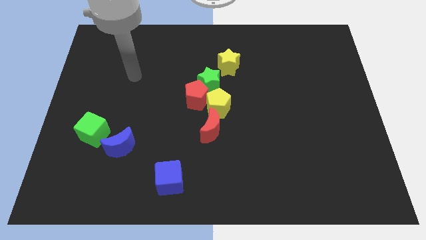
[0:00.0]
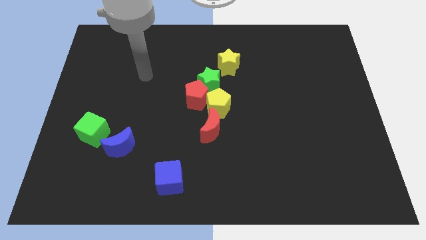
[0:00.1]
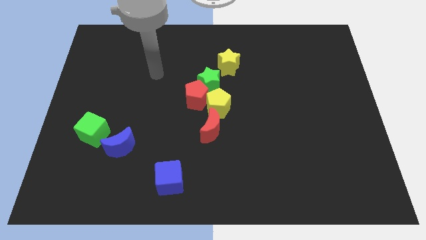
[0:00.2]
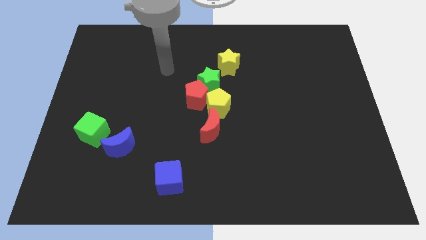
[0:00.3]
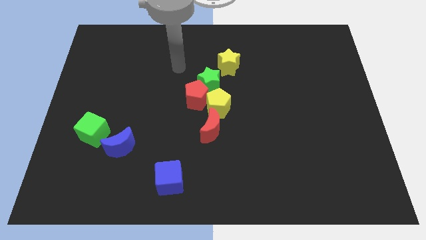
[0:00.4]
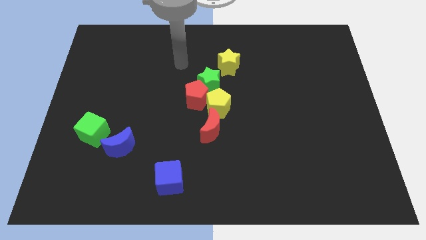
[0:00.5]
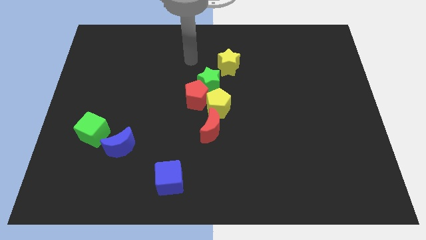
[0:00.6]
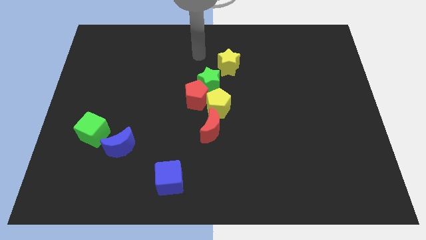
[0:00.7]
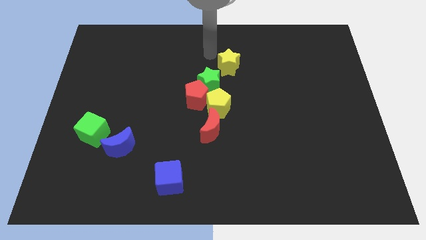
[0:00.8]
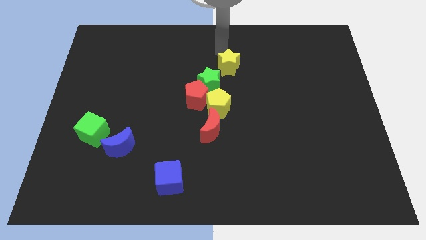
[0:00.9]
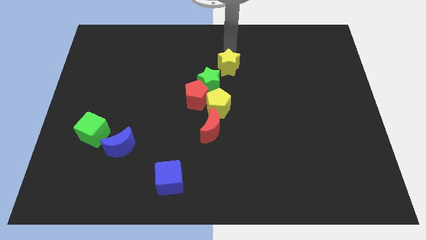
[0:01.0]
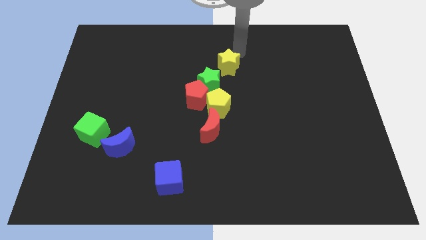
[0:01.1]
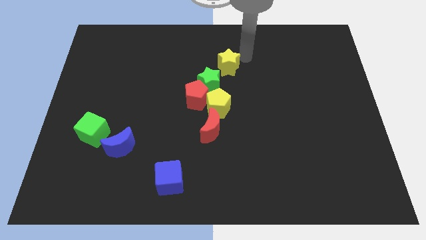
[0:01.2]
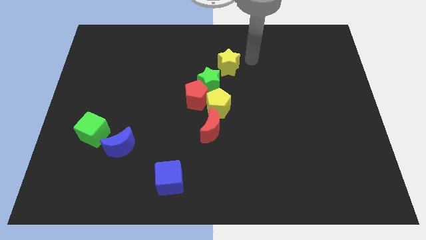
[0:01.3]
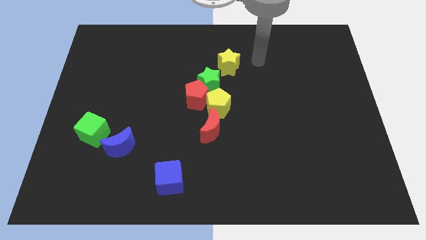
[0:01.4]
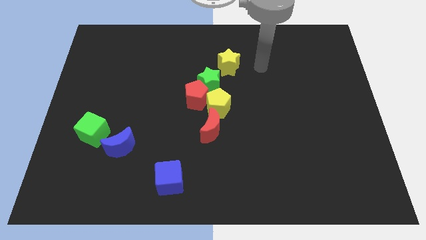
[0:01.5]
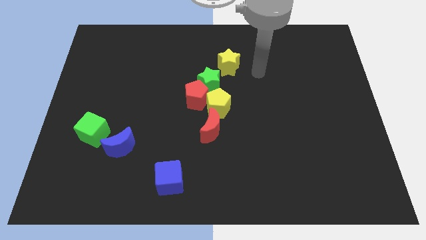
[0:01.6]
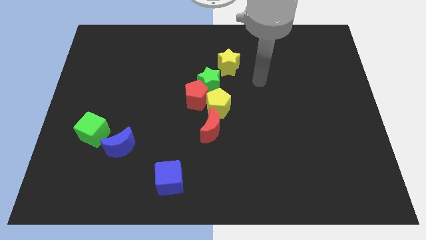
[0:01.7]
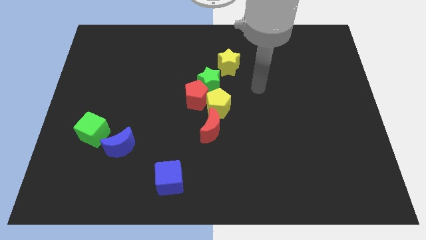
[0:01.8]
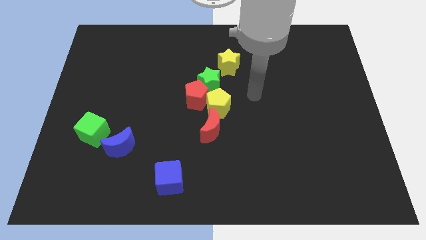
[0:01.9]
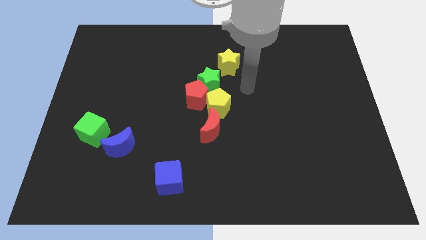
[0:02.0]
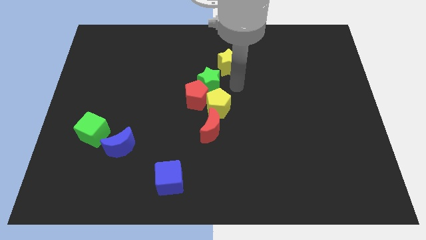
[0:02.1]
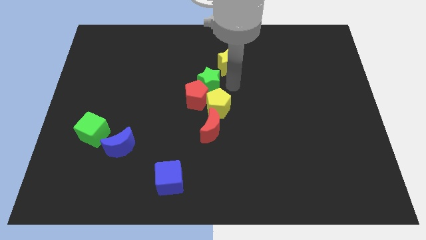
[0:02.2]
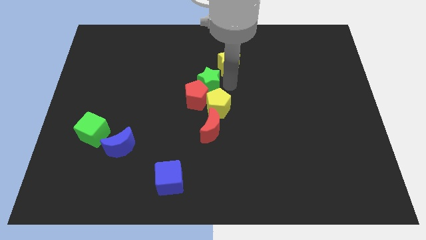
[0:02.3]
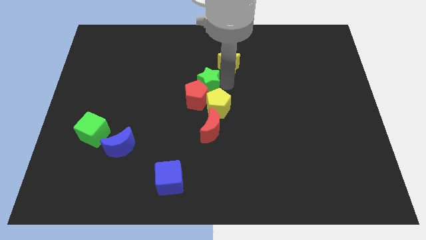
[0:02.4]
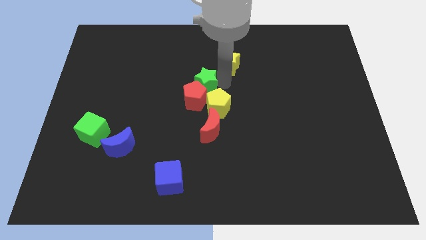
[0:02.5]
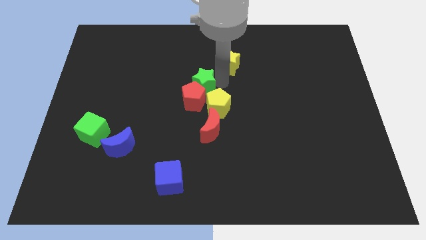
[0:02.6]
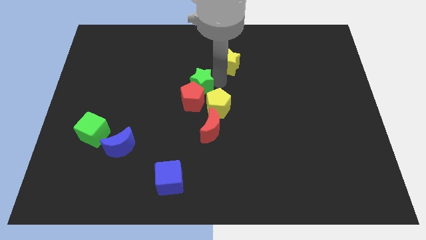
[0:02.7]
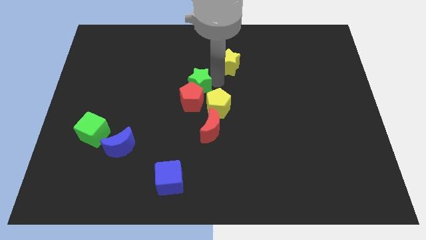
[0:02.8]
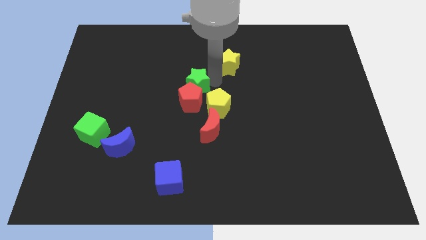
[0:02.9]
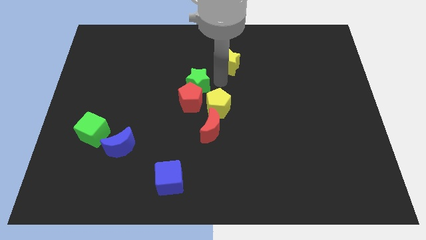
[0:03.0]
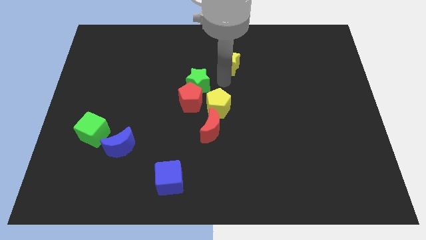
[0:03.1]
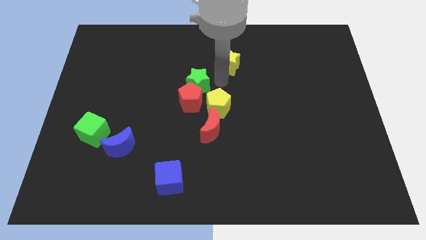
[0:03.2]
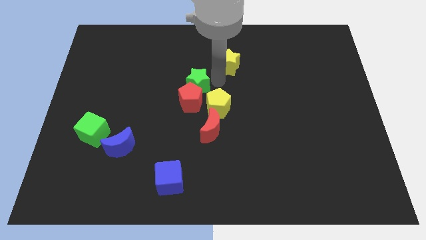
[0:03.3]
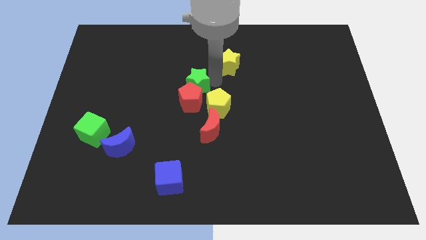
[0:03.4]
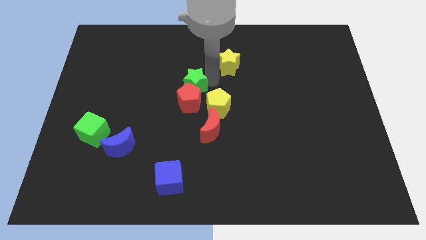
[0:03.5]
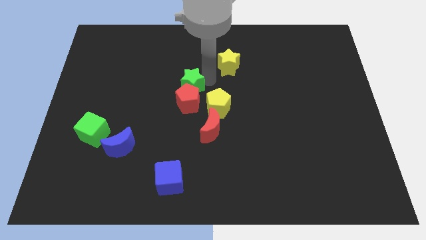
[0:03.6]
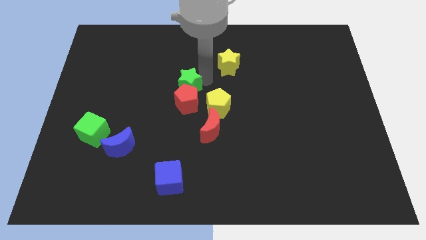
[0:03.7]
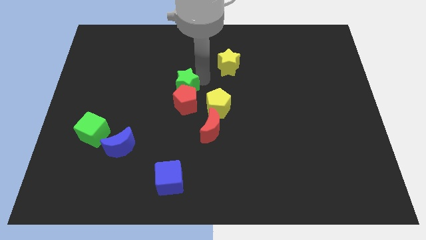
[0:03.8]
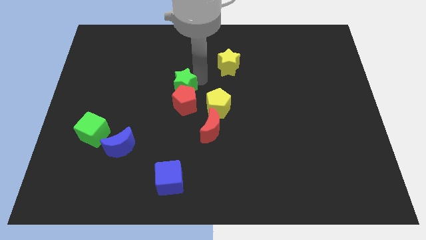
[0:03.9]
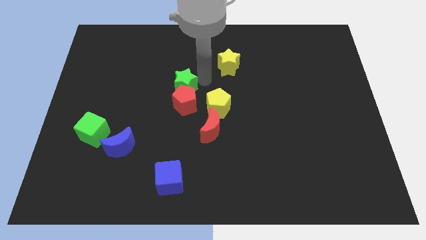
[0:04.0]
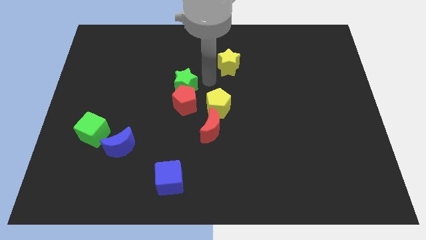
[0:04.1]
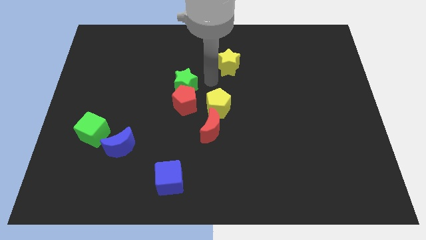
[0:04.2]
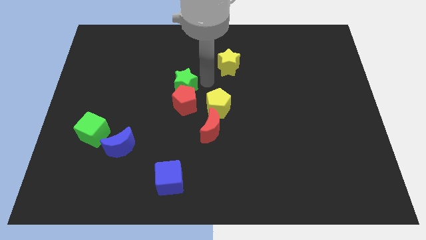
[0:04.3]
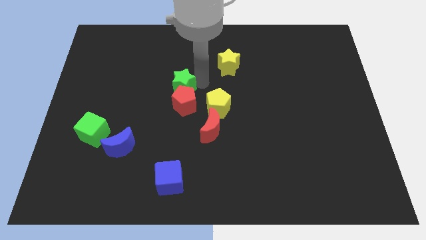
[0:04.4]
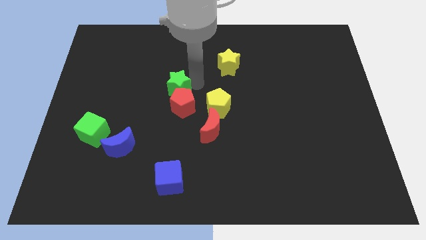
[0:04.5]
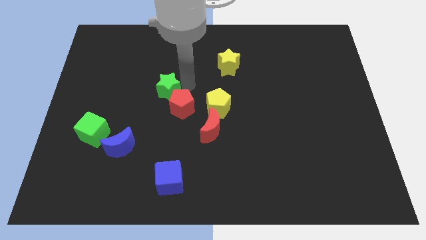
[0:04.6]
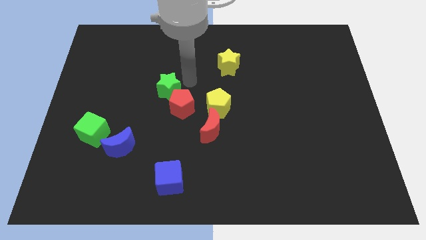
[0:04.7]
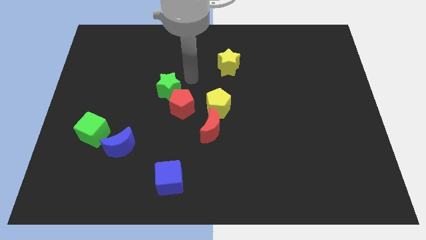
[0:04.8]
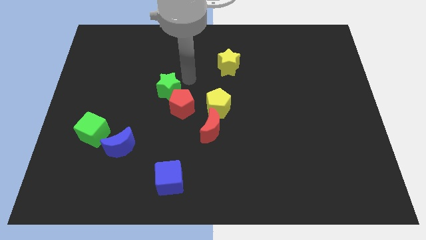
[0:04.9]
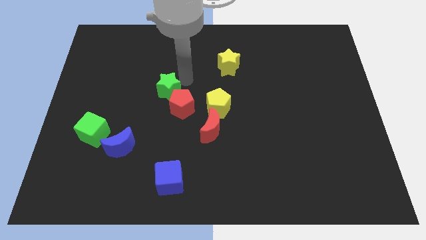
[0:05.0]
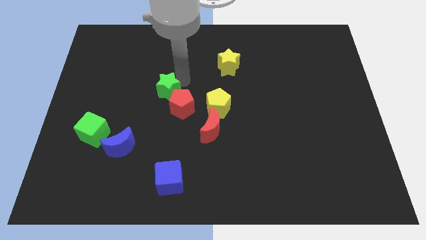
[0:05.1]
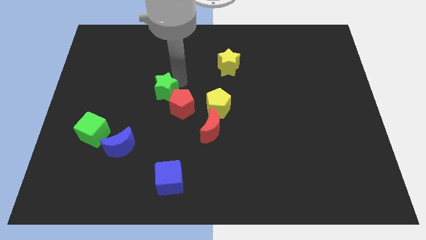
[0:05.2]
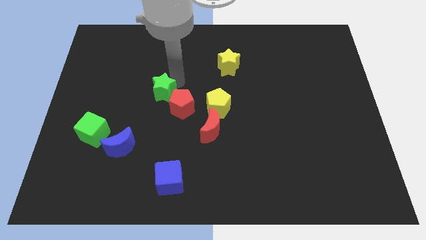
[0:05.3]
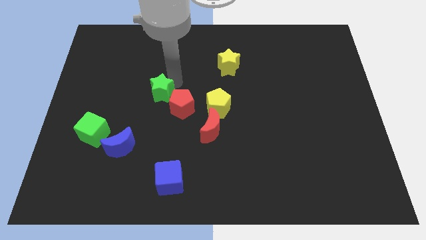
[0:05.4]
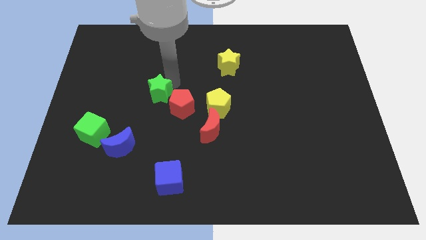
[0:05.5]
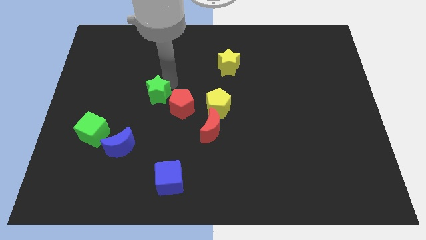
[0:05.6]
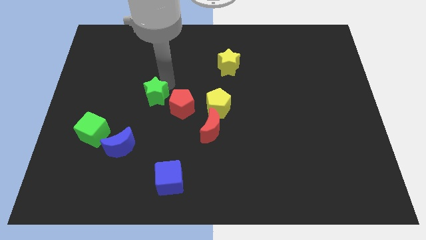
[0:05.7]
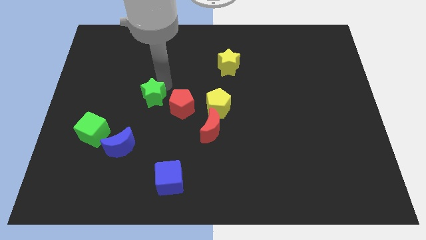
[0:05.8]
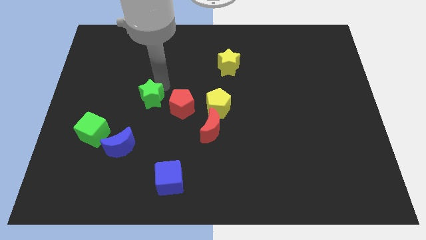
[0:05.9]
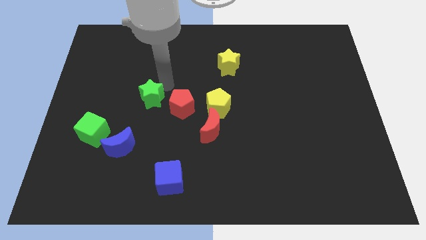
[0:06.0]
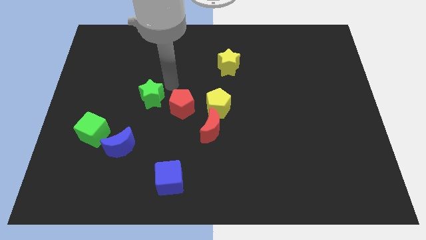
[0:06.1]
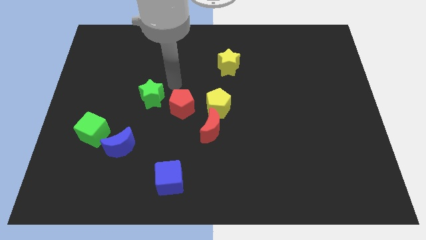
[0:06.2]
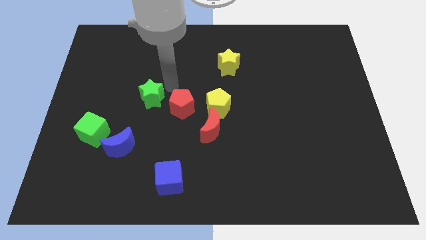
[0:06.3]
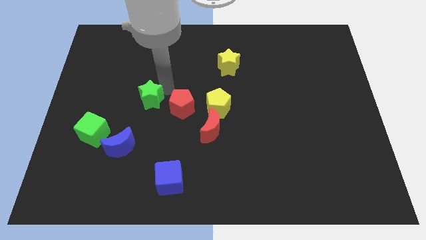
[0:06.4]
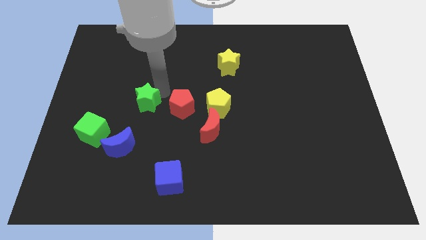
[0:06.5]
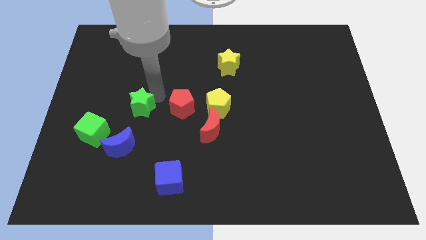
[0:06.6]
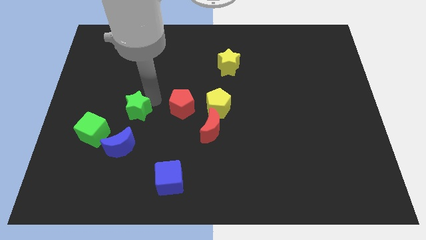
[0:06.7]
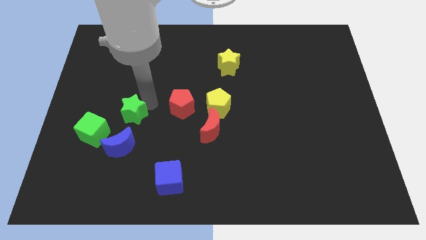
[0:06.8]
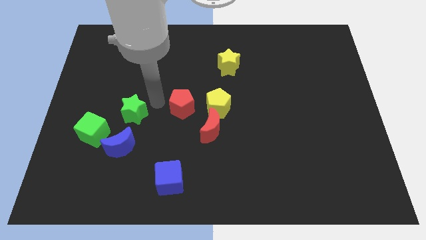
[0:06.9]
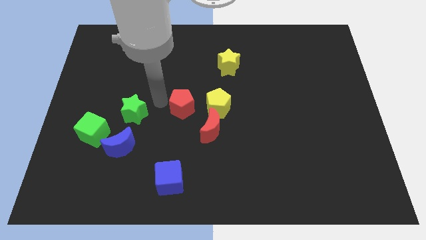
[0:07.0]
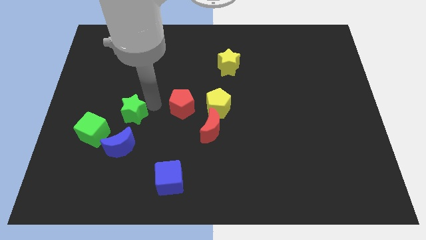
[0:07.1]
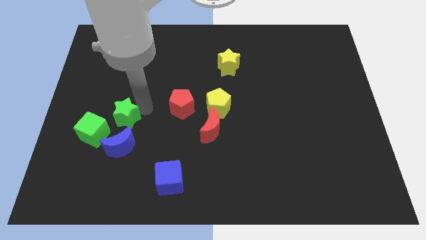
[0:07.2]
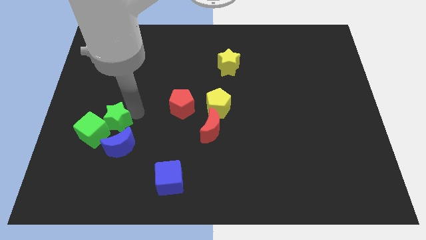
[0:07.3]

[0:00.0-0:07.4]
put the green star towards the green cube

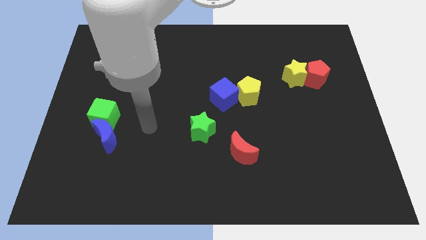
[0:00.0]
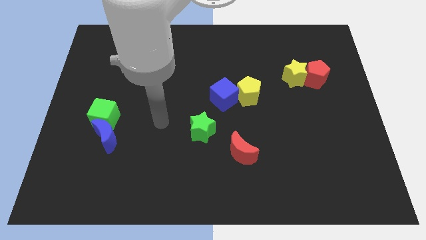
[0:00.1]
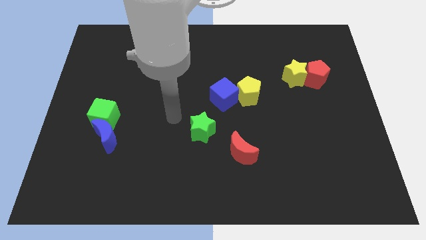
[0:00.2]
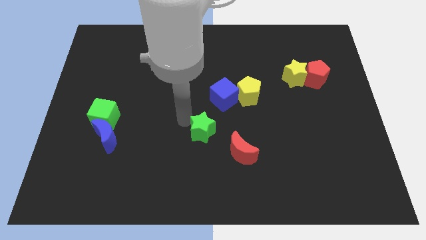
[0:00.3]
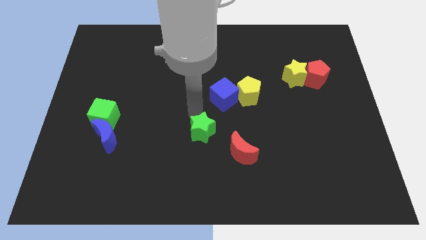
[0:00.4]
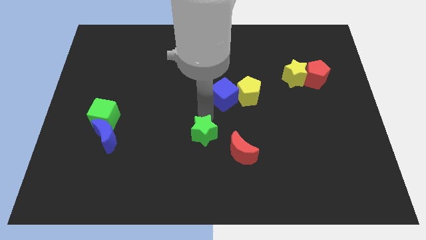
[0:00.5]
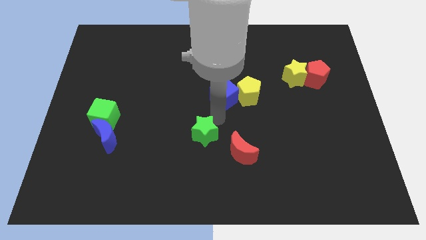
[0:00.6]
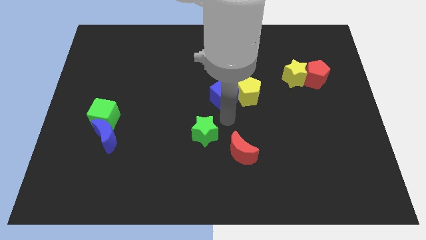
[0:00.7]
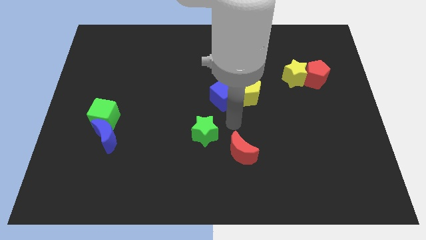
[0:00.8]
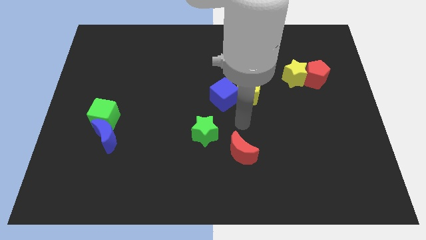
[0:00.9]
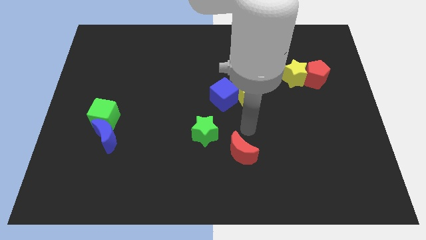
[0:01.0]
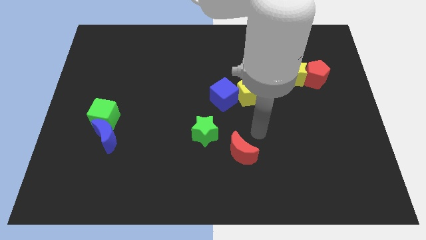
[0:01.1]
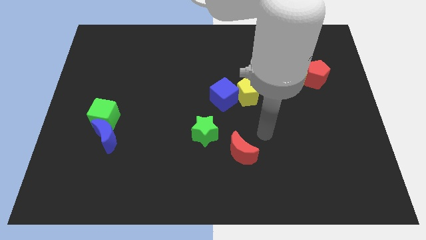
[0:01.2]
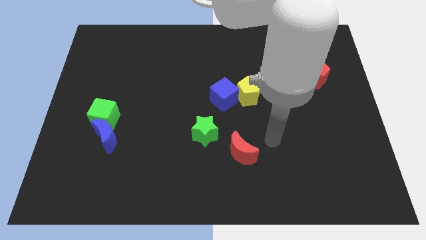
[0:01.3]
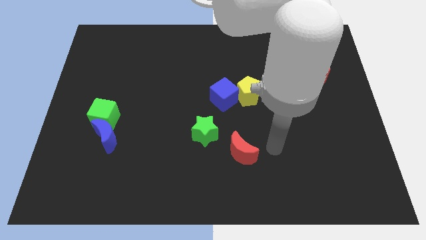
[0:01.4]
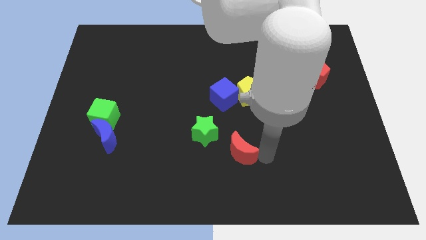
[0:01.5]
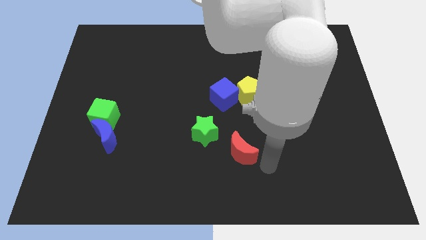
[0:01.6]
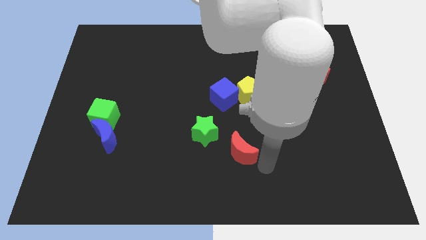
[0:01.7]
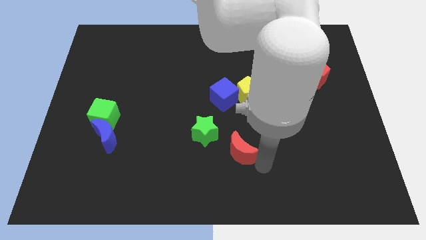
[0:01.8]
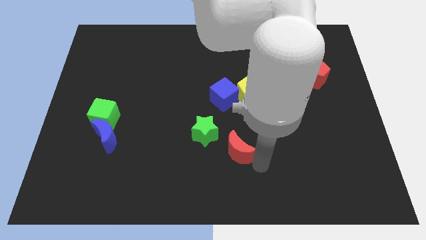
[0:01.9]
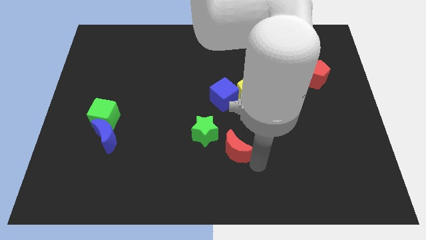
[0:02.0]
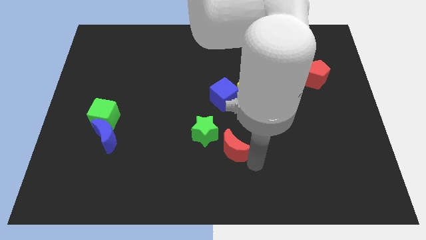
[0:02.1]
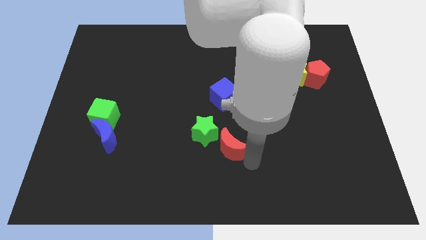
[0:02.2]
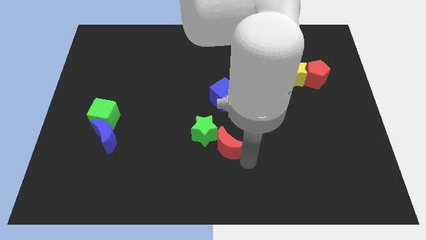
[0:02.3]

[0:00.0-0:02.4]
put the red moon close to the green star
